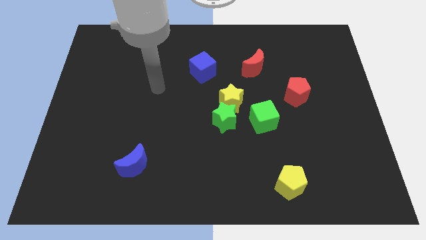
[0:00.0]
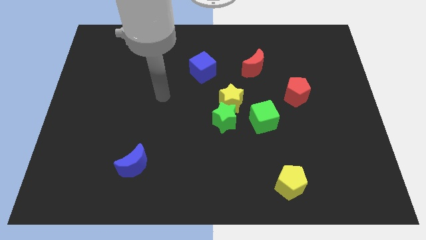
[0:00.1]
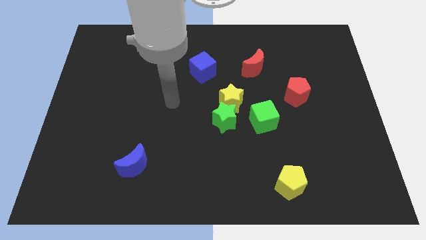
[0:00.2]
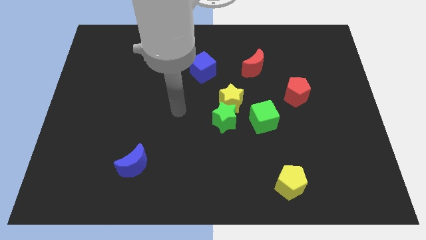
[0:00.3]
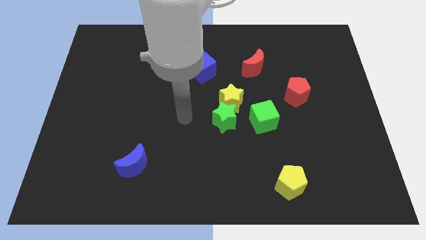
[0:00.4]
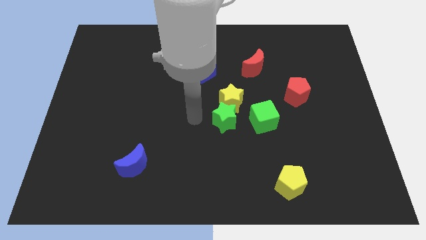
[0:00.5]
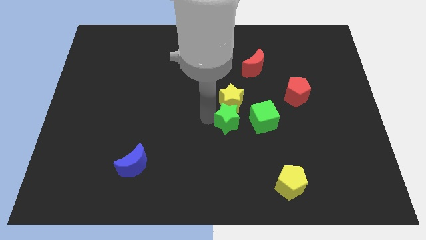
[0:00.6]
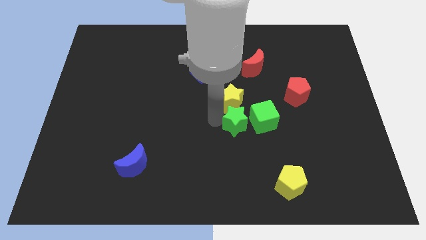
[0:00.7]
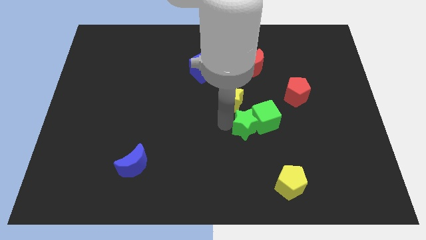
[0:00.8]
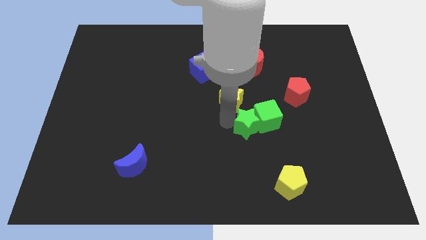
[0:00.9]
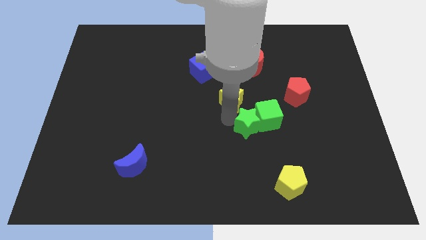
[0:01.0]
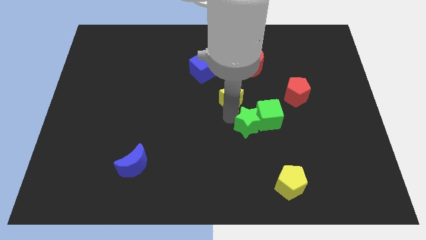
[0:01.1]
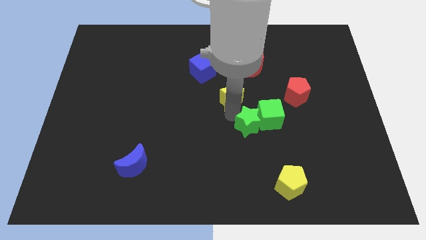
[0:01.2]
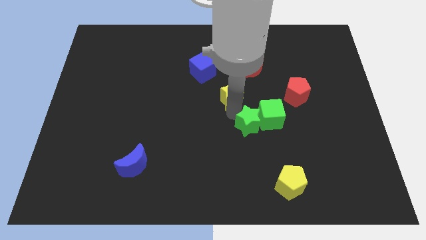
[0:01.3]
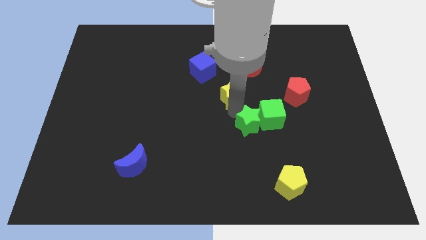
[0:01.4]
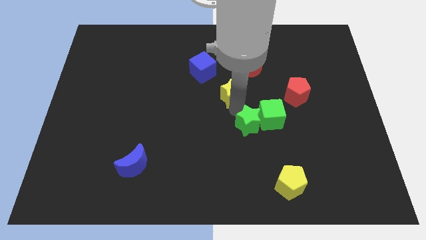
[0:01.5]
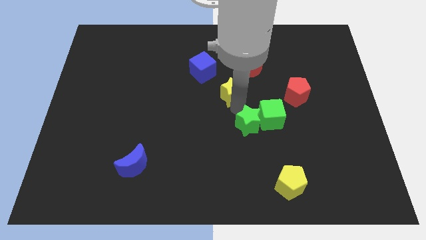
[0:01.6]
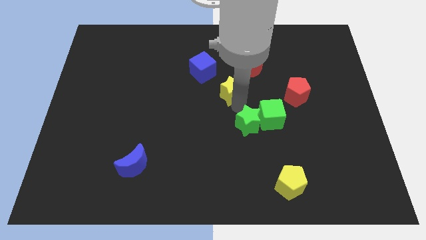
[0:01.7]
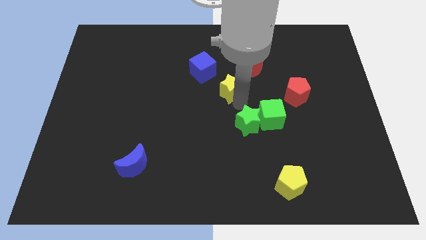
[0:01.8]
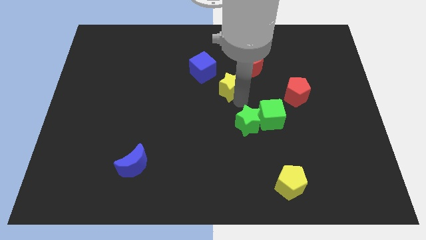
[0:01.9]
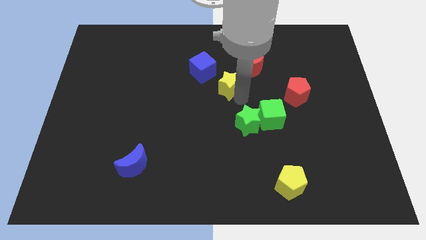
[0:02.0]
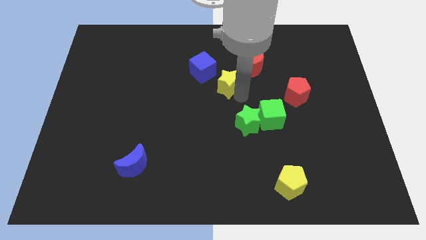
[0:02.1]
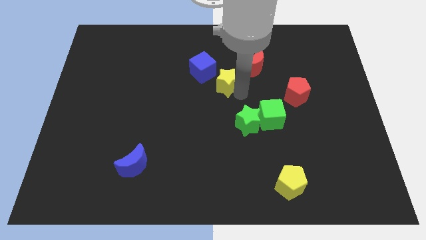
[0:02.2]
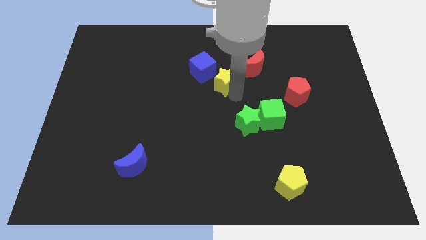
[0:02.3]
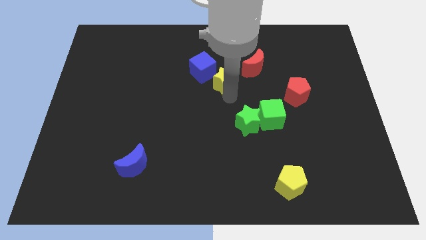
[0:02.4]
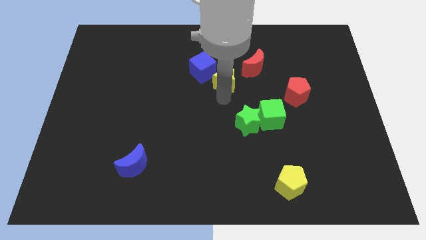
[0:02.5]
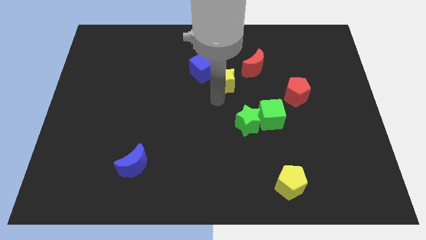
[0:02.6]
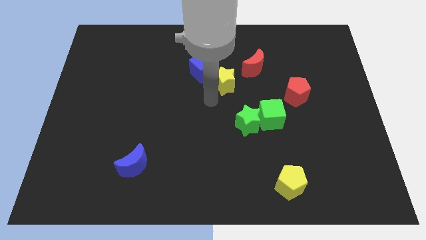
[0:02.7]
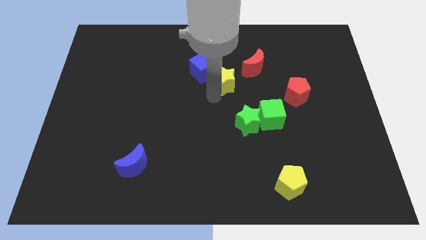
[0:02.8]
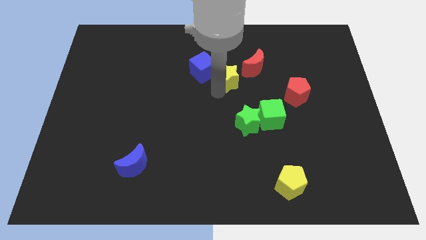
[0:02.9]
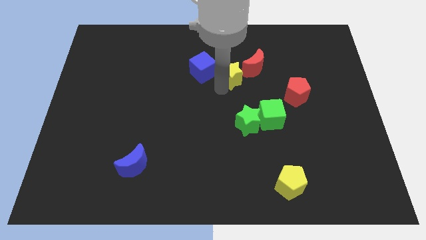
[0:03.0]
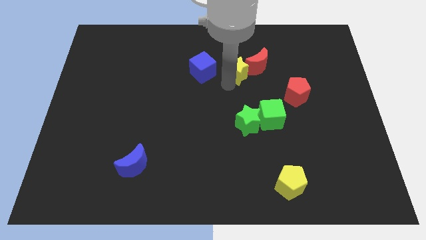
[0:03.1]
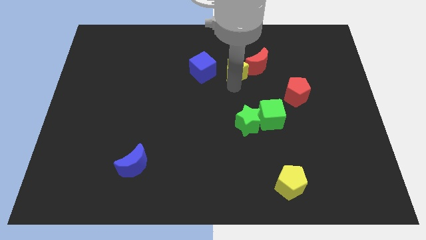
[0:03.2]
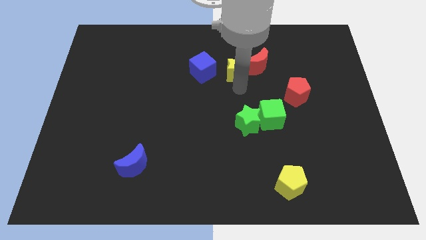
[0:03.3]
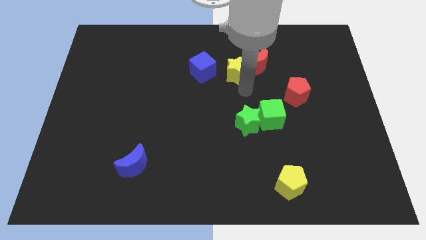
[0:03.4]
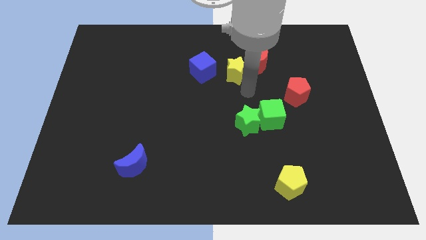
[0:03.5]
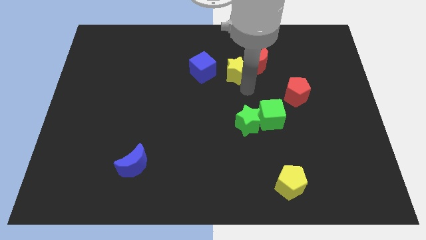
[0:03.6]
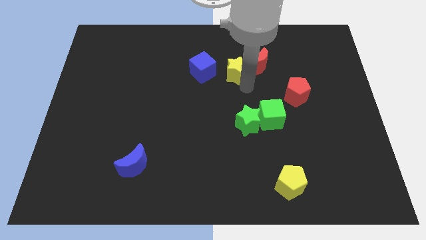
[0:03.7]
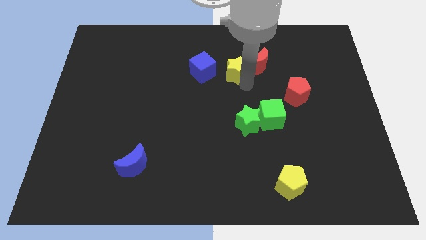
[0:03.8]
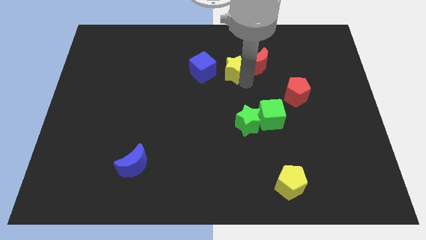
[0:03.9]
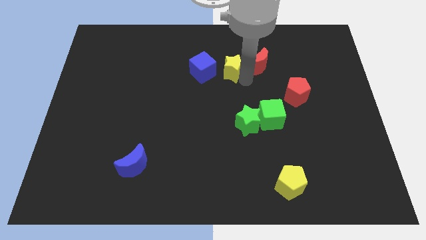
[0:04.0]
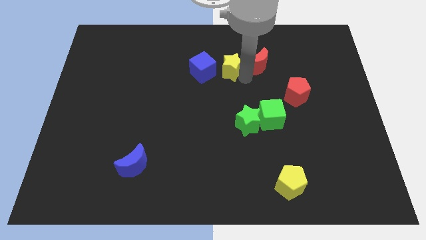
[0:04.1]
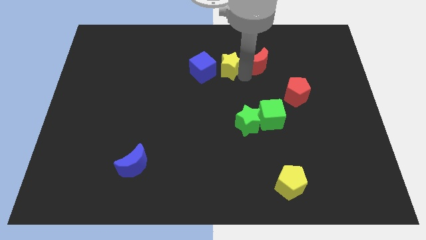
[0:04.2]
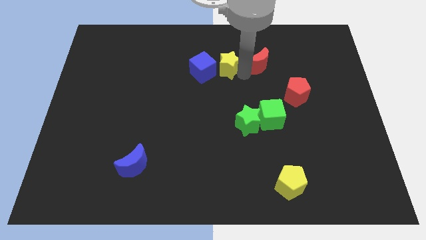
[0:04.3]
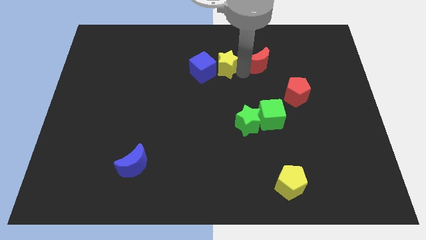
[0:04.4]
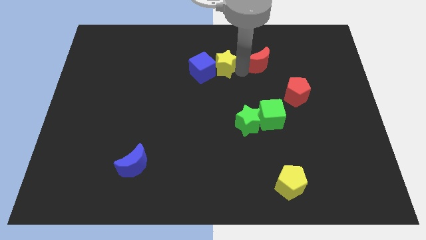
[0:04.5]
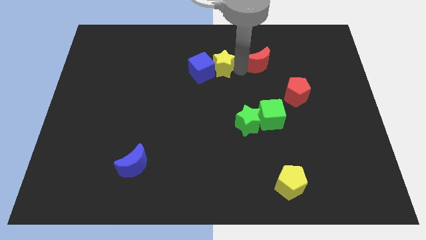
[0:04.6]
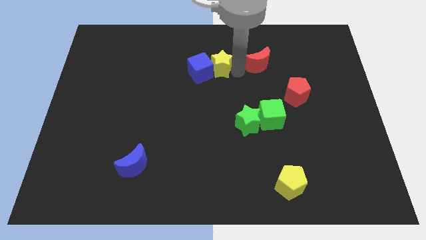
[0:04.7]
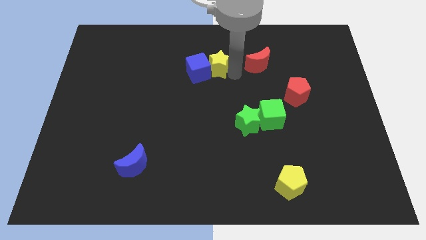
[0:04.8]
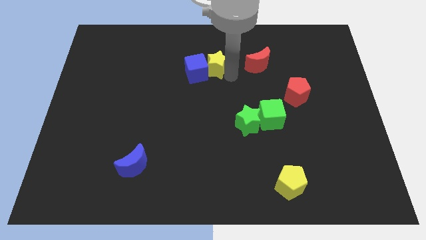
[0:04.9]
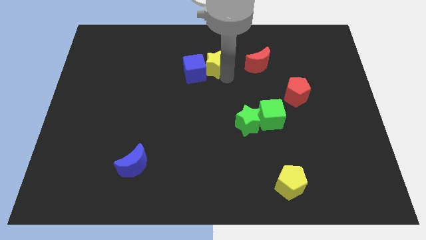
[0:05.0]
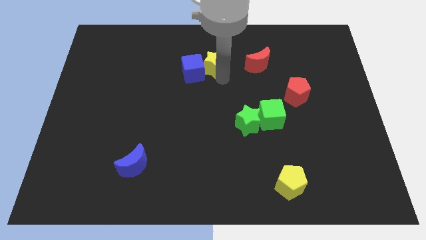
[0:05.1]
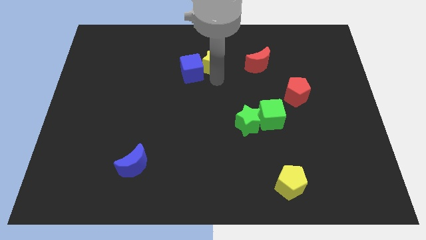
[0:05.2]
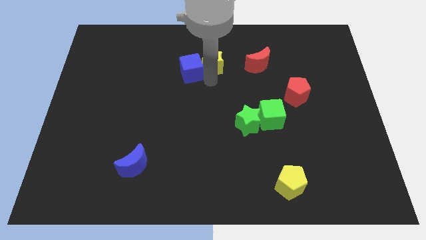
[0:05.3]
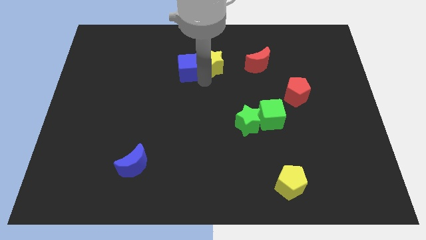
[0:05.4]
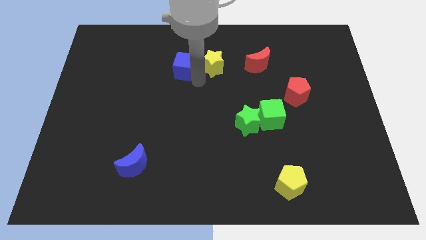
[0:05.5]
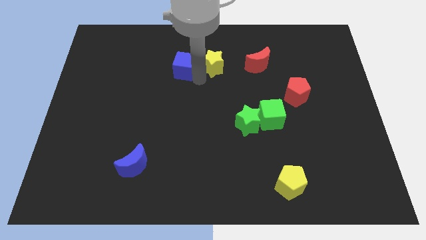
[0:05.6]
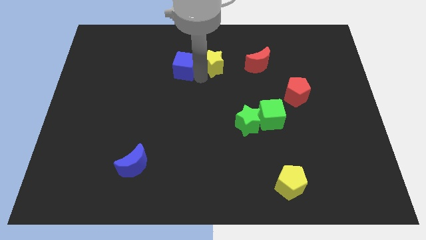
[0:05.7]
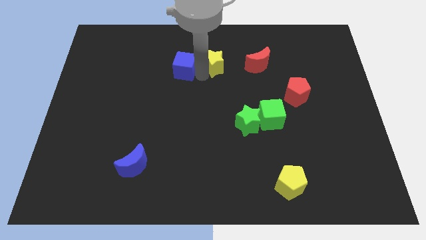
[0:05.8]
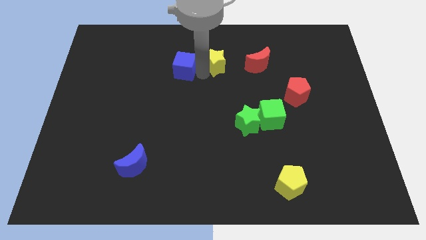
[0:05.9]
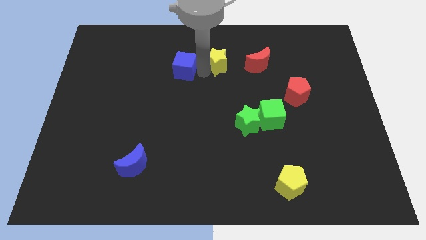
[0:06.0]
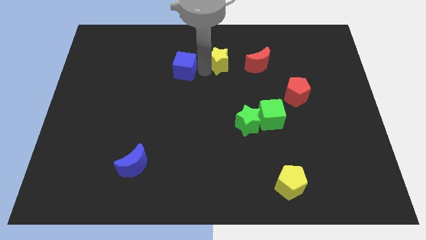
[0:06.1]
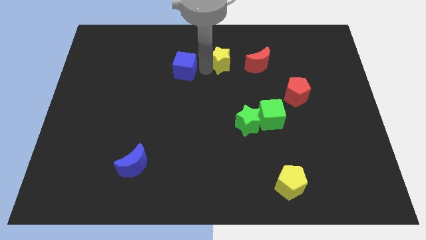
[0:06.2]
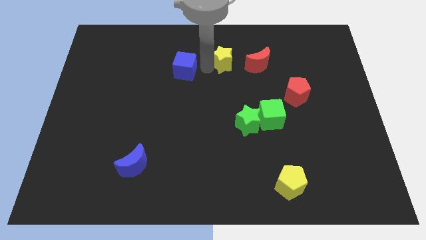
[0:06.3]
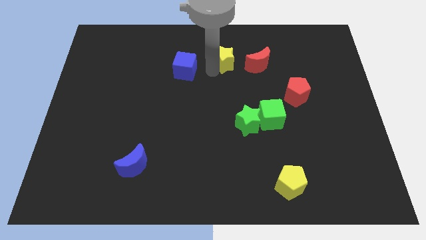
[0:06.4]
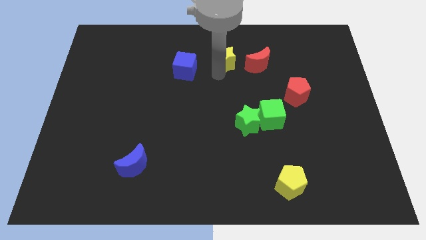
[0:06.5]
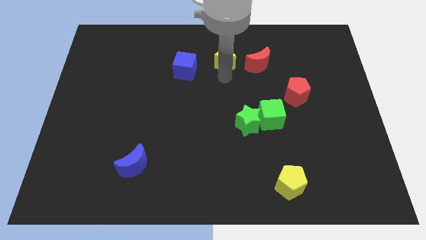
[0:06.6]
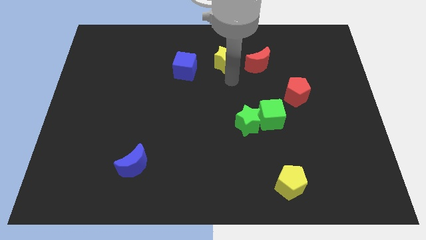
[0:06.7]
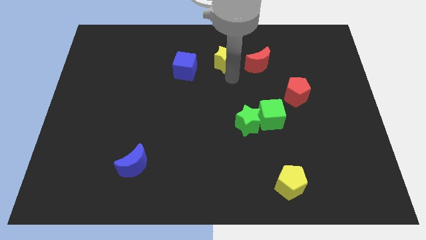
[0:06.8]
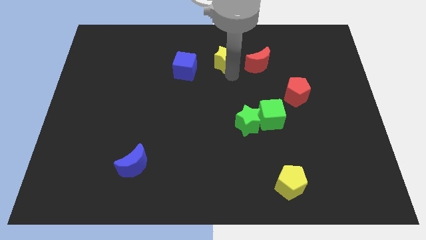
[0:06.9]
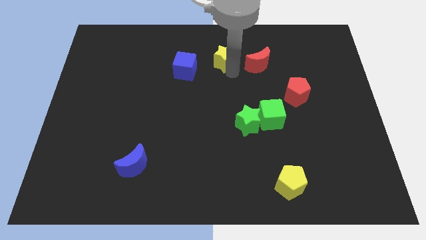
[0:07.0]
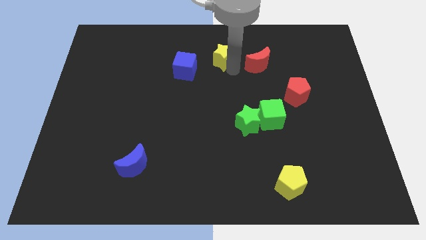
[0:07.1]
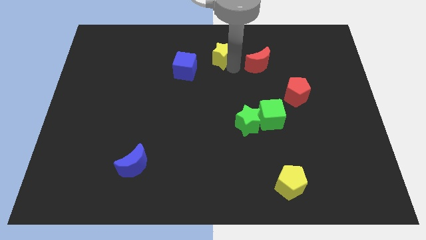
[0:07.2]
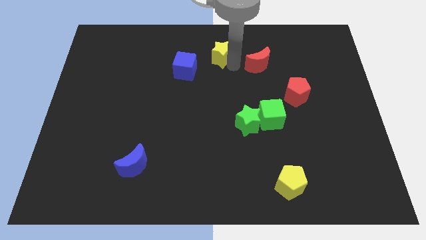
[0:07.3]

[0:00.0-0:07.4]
move the yellow star to the towards your base
